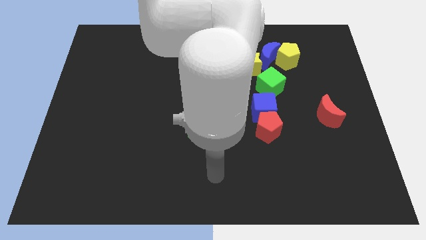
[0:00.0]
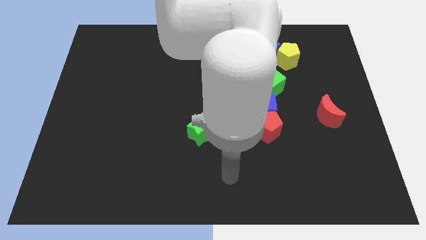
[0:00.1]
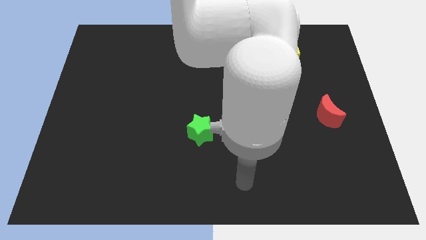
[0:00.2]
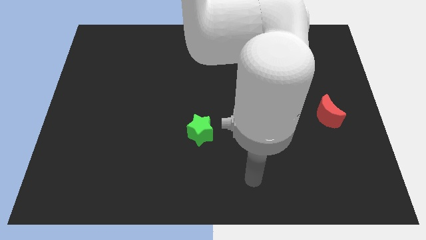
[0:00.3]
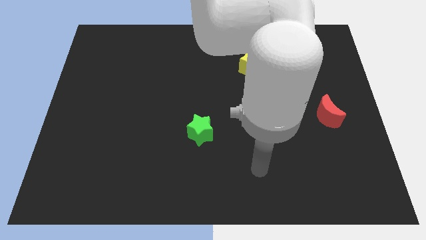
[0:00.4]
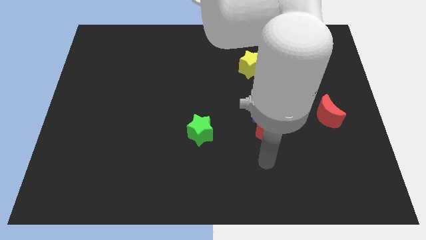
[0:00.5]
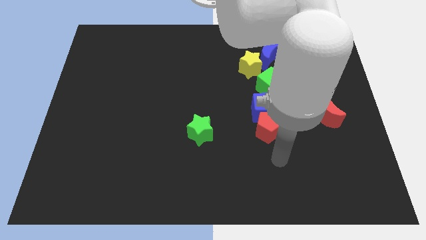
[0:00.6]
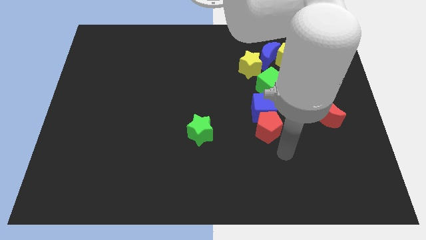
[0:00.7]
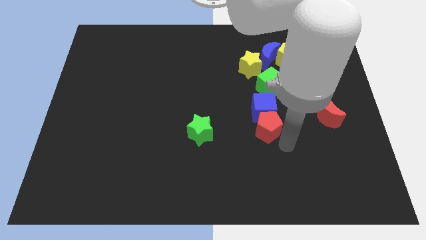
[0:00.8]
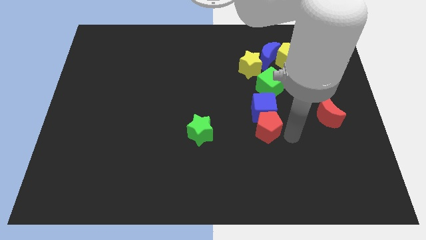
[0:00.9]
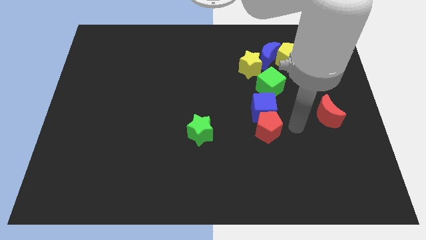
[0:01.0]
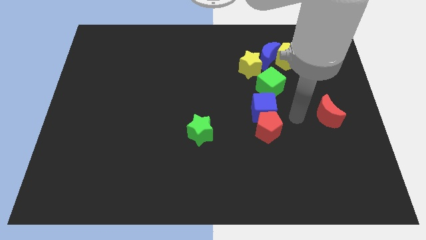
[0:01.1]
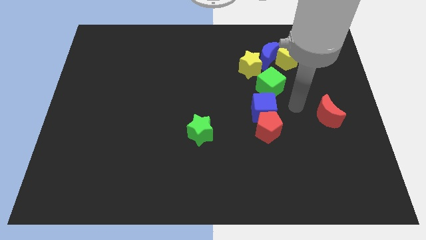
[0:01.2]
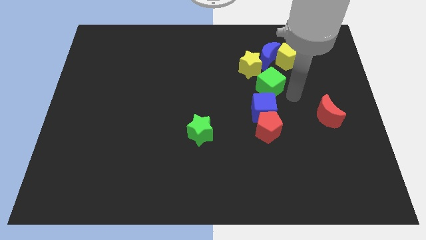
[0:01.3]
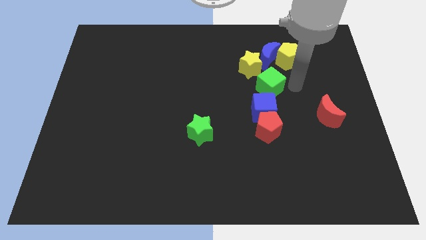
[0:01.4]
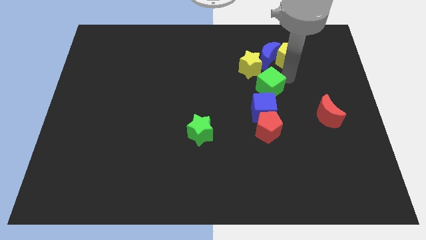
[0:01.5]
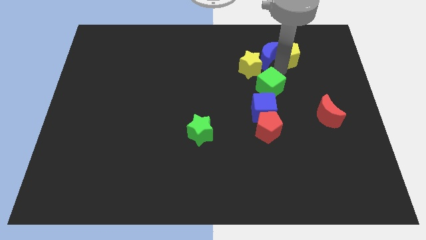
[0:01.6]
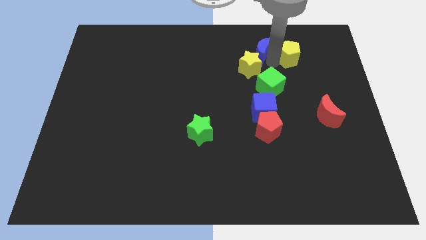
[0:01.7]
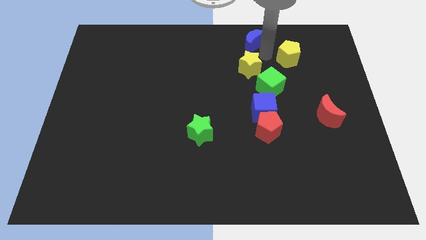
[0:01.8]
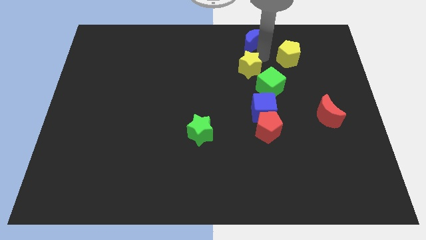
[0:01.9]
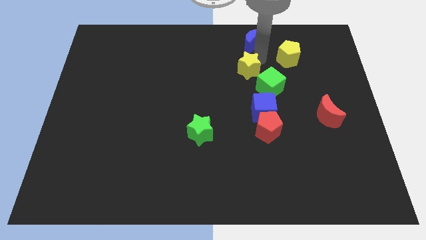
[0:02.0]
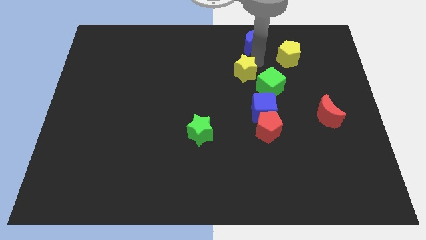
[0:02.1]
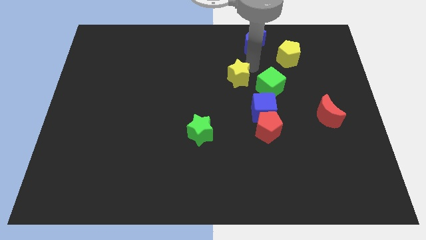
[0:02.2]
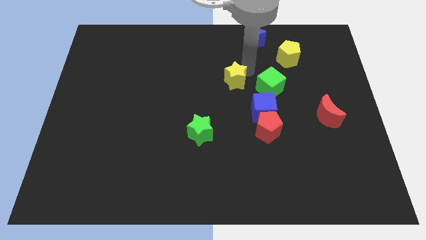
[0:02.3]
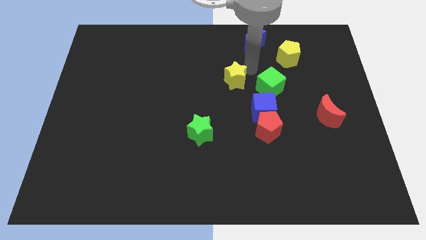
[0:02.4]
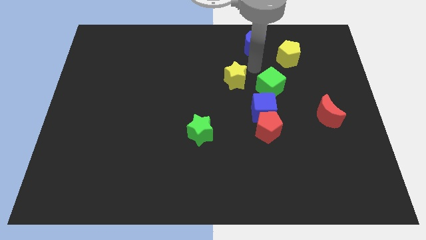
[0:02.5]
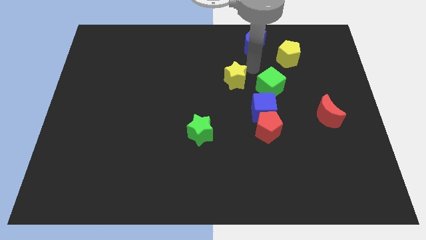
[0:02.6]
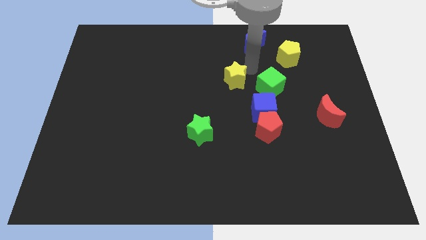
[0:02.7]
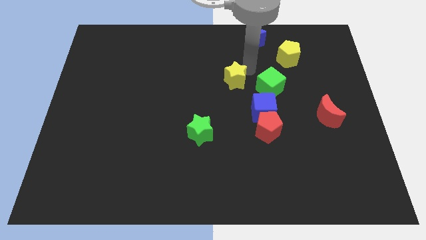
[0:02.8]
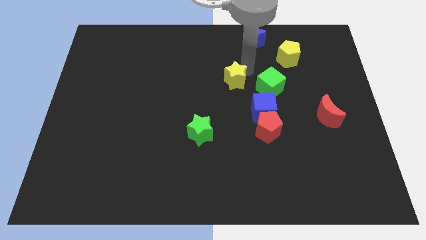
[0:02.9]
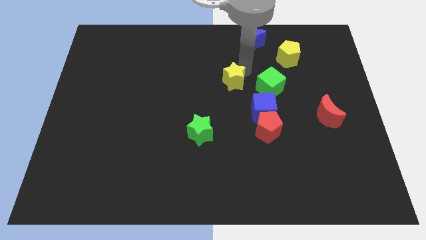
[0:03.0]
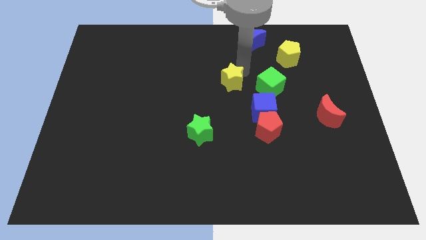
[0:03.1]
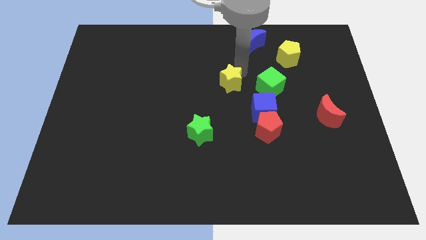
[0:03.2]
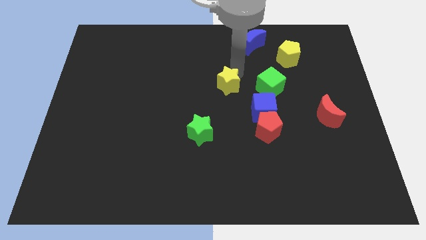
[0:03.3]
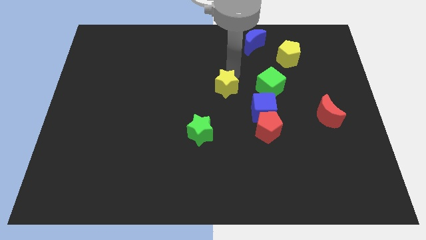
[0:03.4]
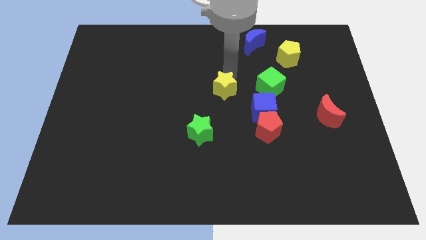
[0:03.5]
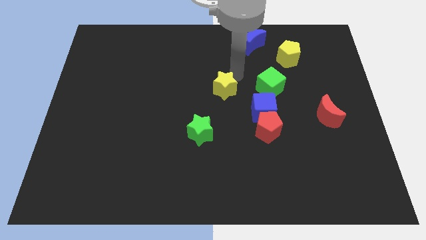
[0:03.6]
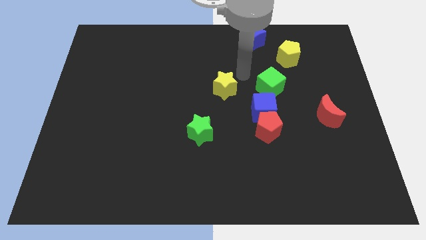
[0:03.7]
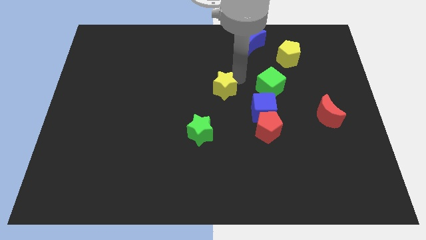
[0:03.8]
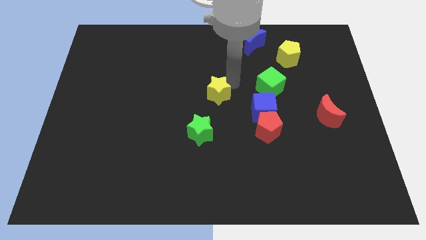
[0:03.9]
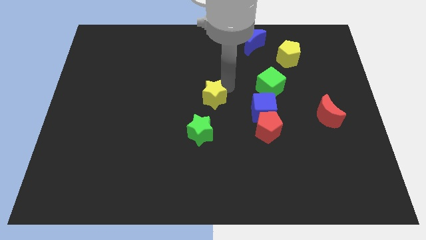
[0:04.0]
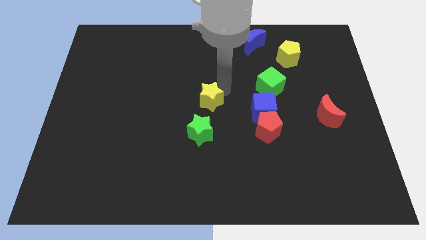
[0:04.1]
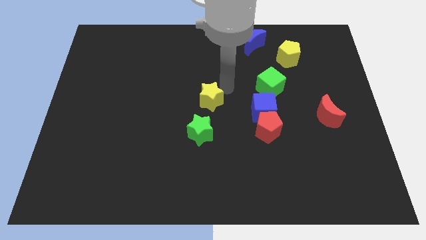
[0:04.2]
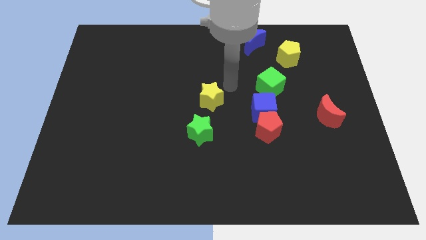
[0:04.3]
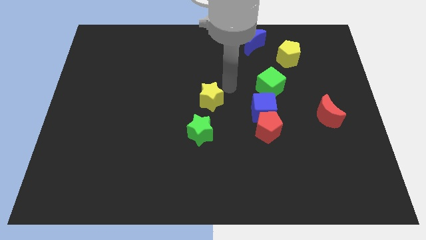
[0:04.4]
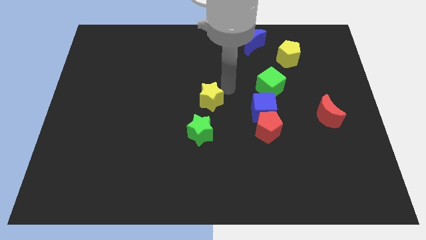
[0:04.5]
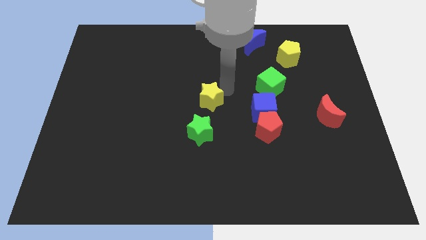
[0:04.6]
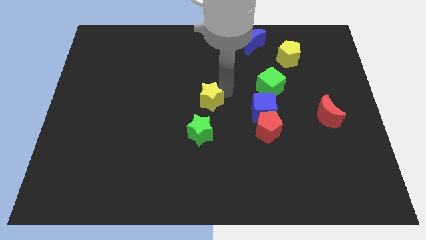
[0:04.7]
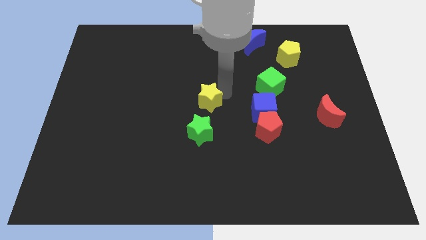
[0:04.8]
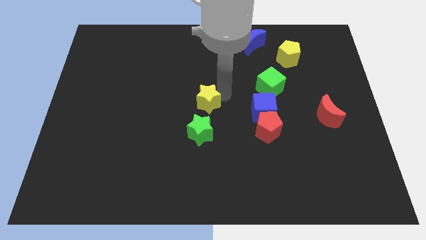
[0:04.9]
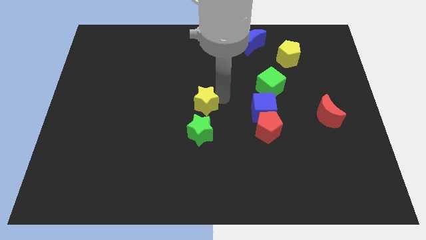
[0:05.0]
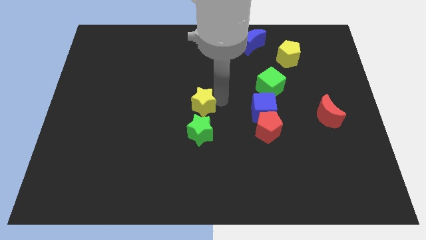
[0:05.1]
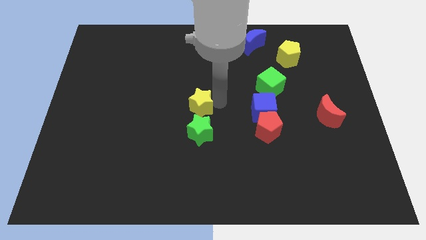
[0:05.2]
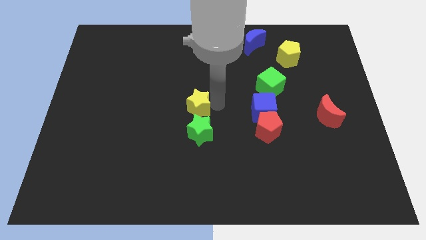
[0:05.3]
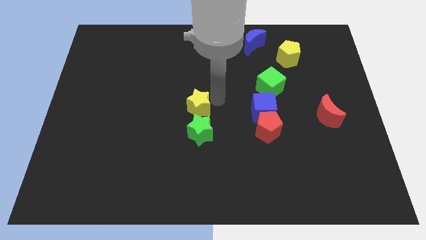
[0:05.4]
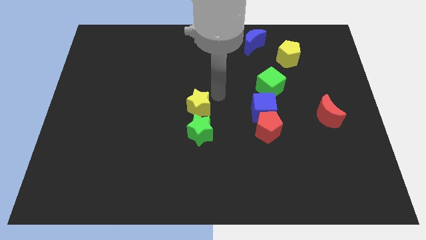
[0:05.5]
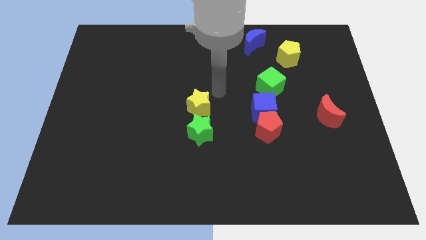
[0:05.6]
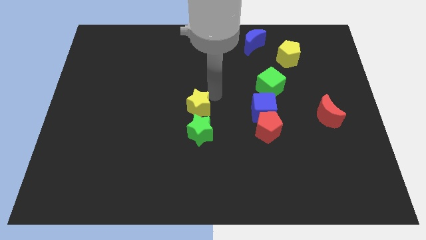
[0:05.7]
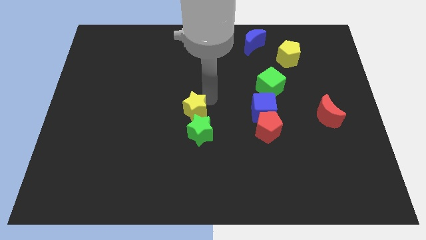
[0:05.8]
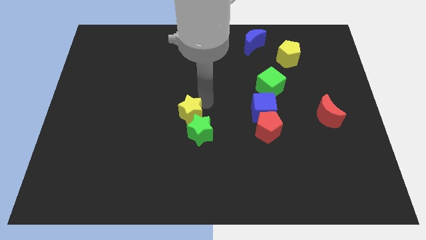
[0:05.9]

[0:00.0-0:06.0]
push the yellow star down and left

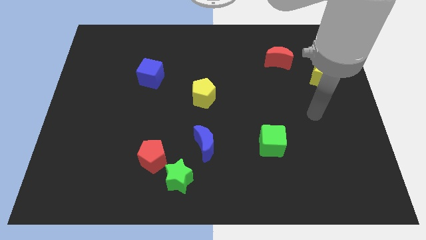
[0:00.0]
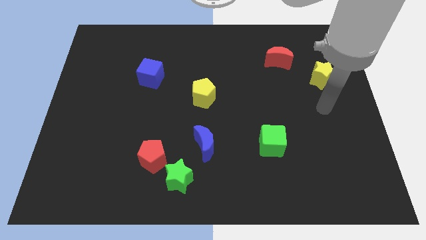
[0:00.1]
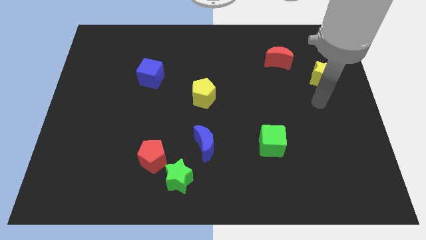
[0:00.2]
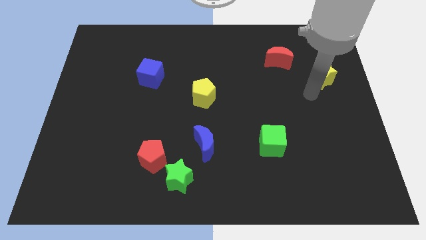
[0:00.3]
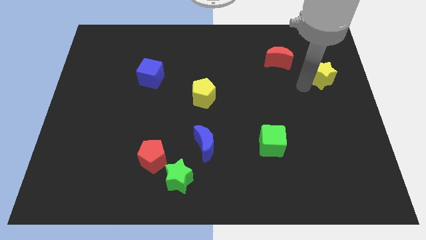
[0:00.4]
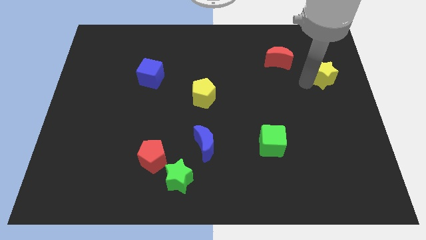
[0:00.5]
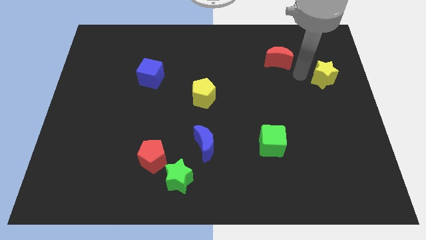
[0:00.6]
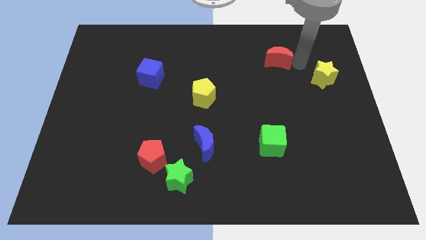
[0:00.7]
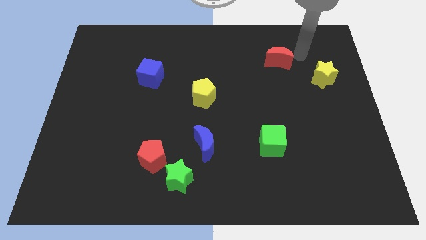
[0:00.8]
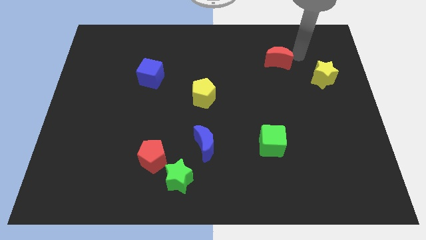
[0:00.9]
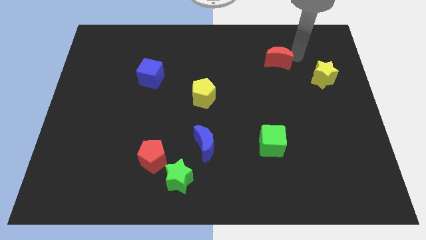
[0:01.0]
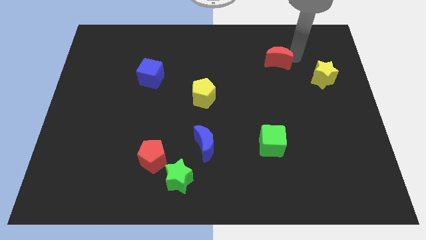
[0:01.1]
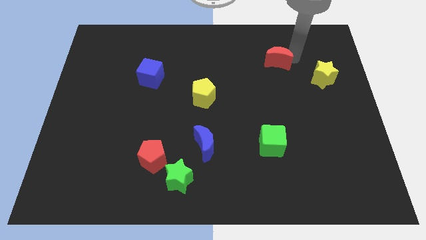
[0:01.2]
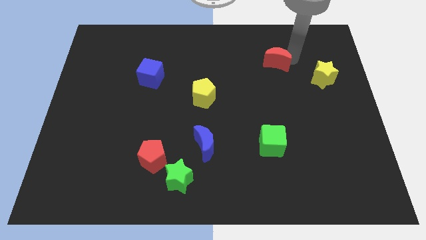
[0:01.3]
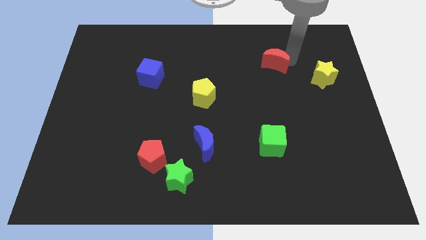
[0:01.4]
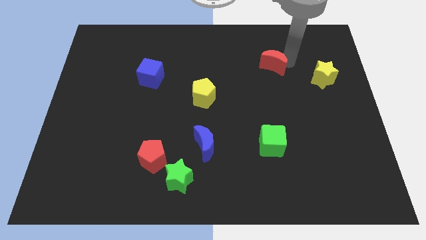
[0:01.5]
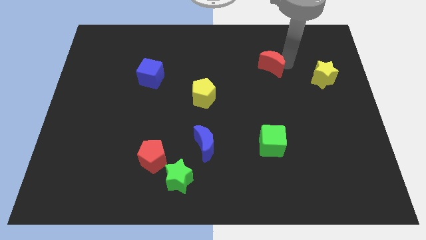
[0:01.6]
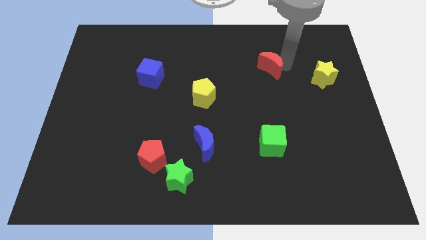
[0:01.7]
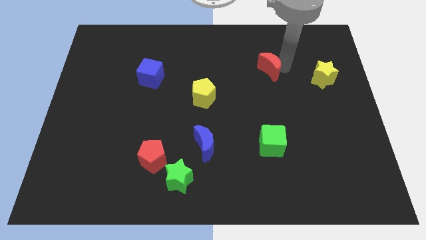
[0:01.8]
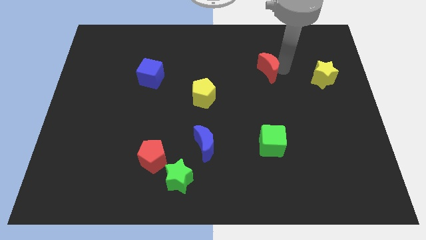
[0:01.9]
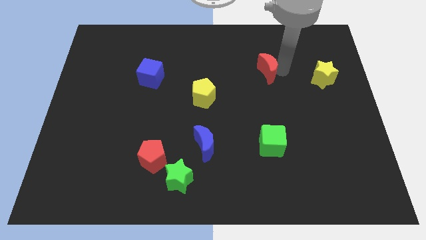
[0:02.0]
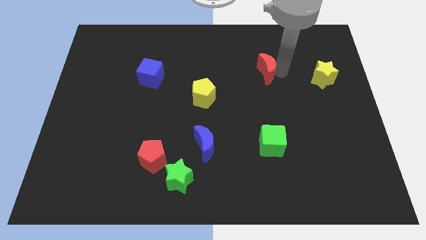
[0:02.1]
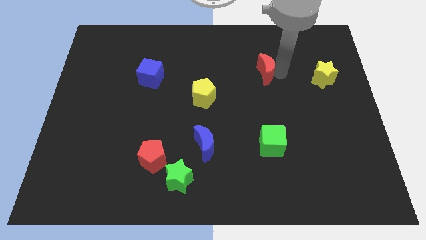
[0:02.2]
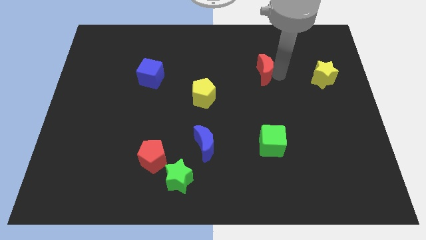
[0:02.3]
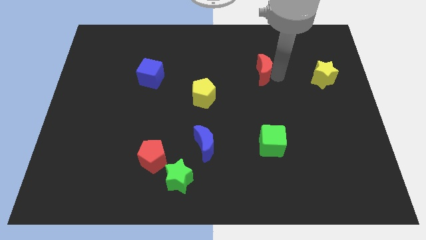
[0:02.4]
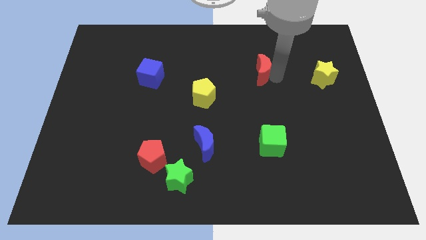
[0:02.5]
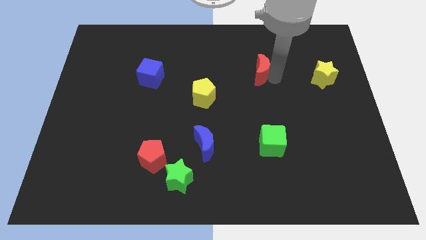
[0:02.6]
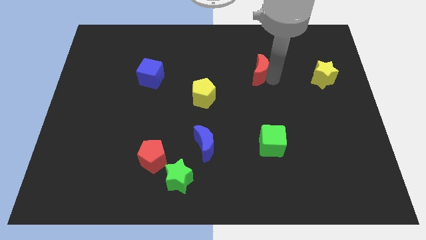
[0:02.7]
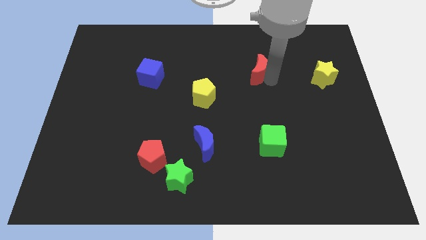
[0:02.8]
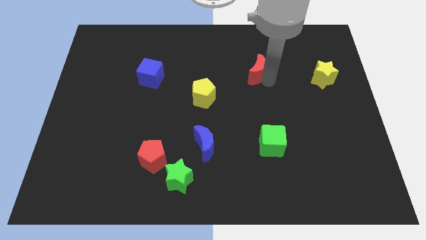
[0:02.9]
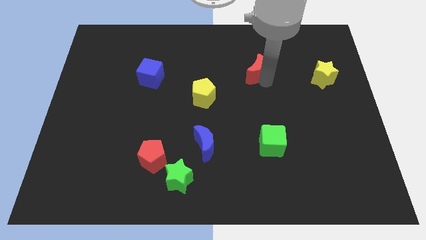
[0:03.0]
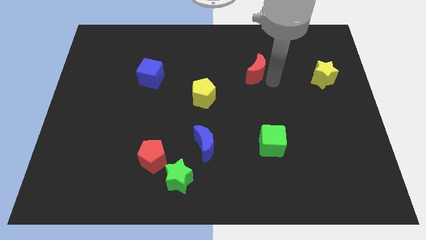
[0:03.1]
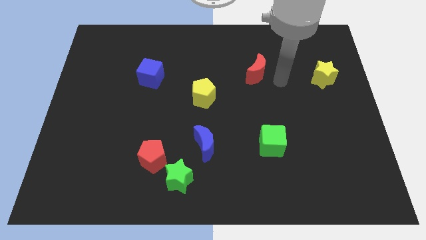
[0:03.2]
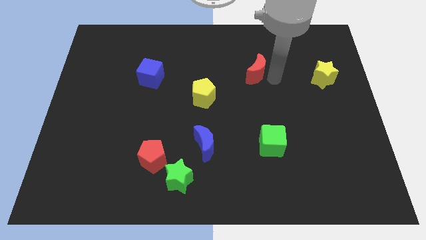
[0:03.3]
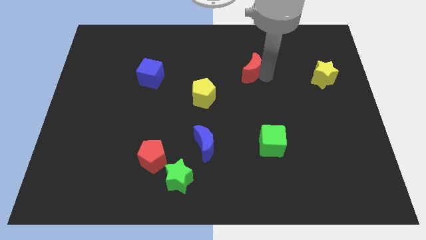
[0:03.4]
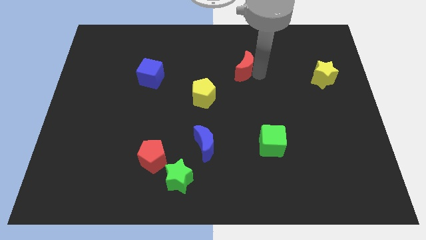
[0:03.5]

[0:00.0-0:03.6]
slightly move the red moon left
